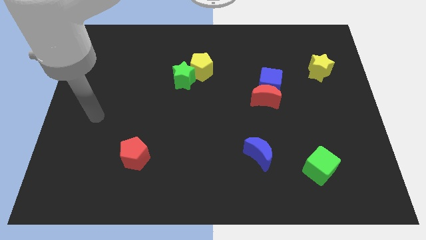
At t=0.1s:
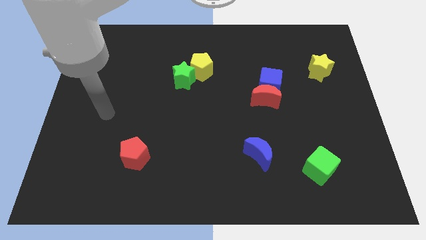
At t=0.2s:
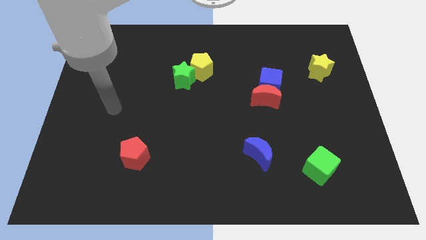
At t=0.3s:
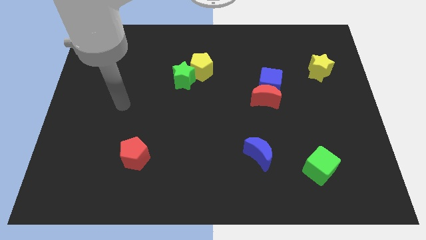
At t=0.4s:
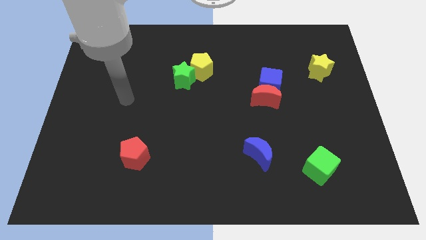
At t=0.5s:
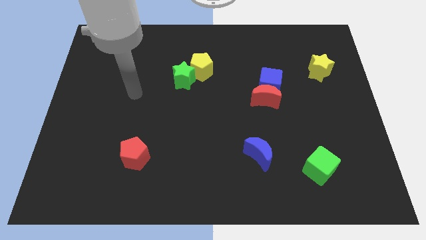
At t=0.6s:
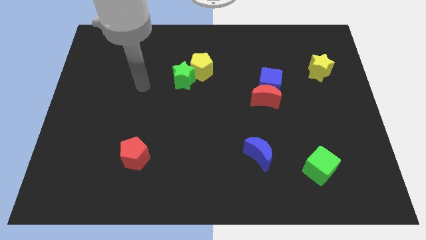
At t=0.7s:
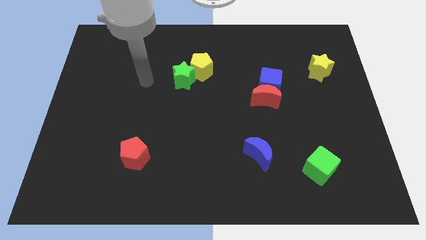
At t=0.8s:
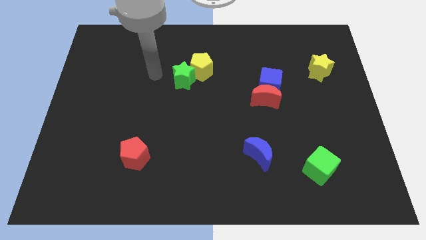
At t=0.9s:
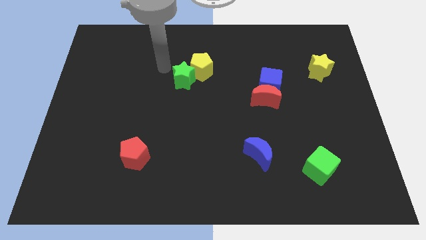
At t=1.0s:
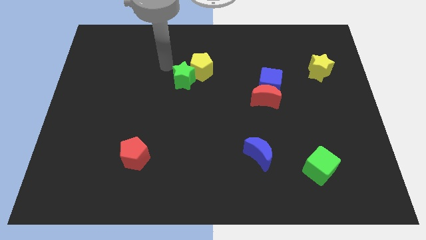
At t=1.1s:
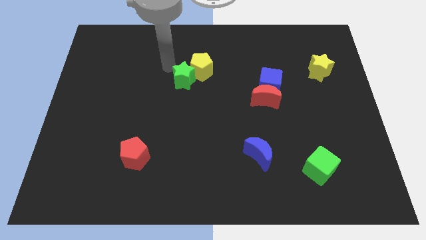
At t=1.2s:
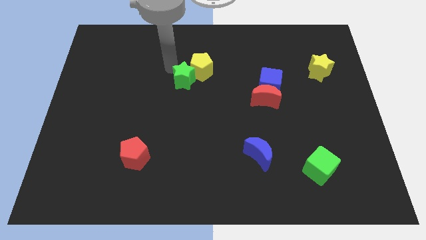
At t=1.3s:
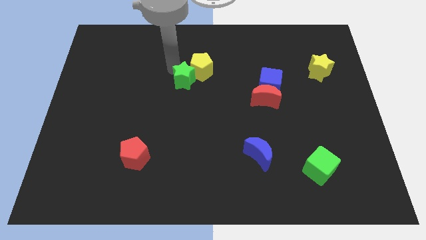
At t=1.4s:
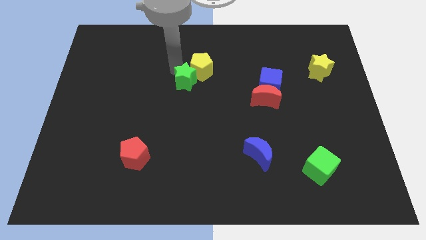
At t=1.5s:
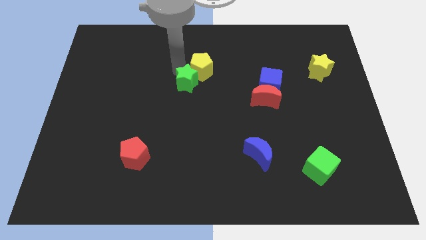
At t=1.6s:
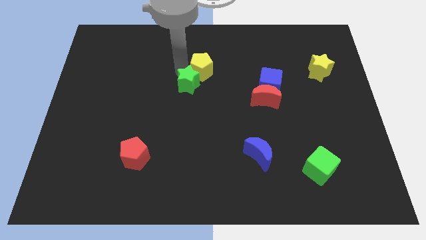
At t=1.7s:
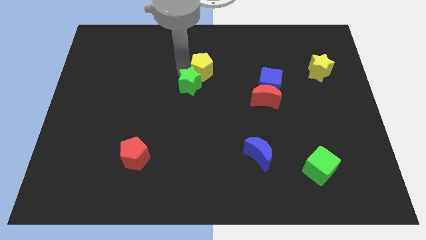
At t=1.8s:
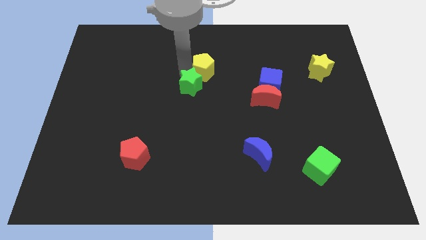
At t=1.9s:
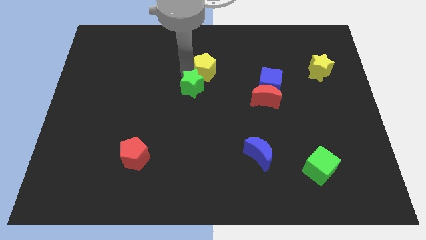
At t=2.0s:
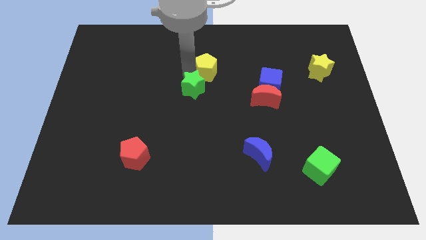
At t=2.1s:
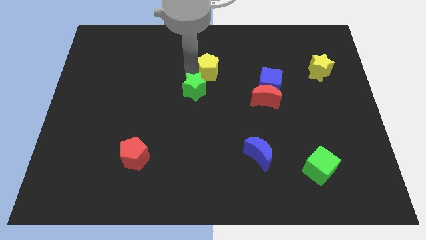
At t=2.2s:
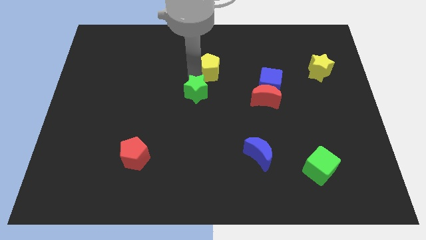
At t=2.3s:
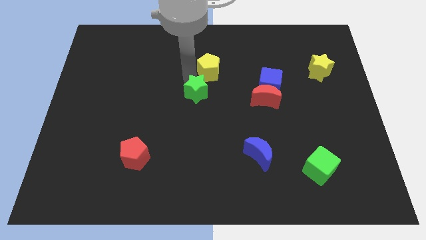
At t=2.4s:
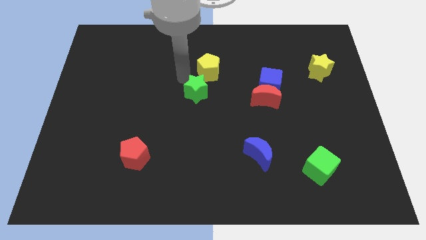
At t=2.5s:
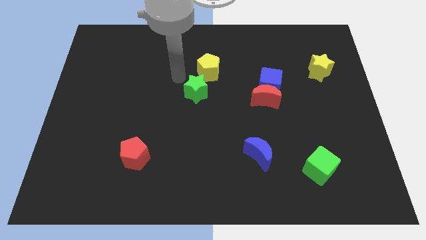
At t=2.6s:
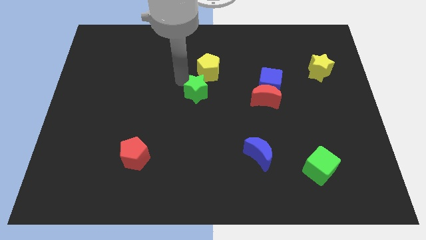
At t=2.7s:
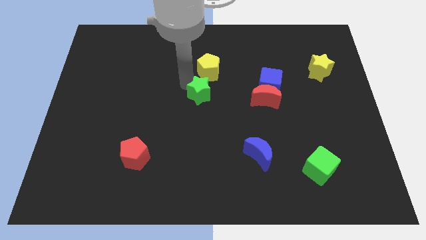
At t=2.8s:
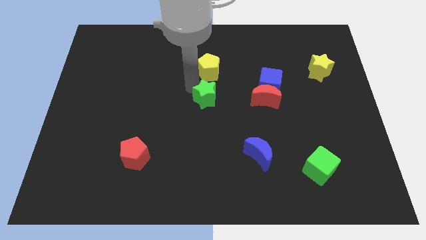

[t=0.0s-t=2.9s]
slide the green star down and to the right diagonally a bit

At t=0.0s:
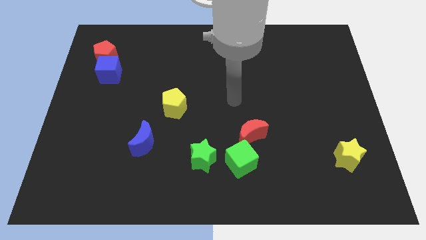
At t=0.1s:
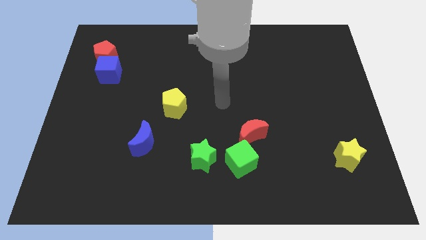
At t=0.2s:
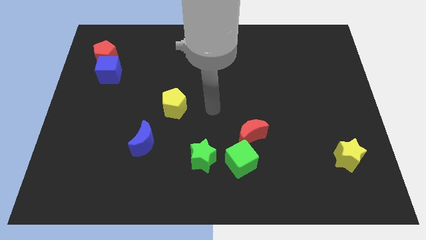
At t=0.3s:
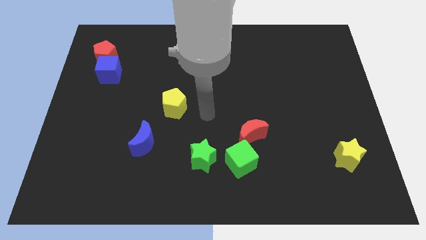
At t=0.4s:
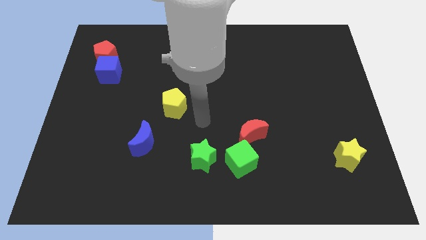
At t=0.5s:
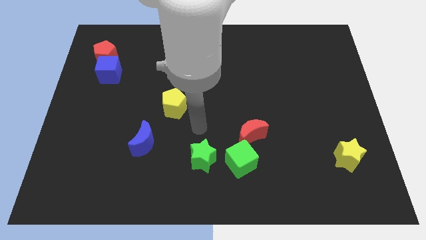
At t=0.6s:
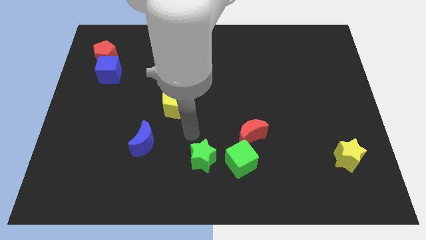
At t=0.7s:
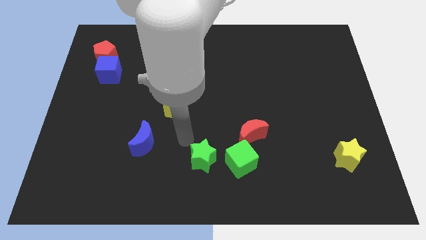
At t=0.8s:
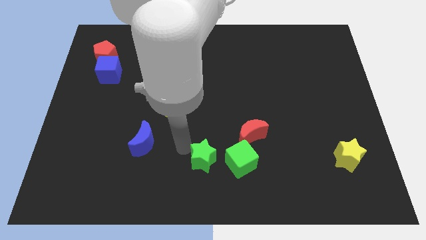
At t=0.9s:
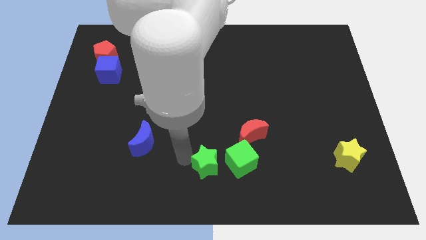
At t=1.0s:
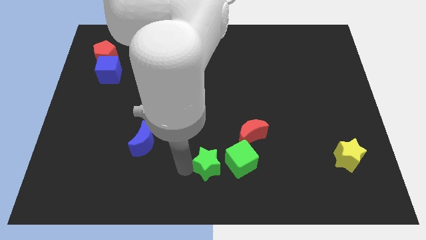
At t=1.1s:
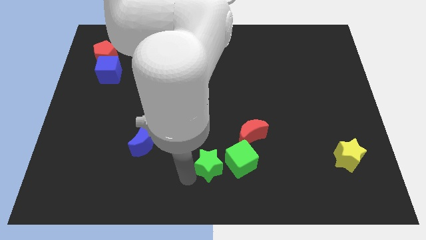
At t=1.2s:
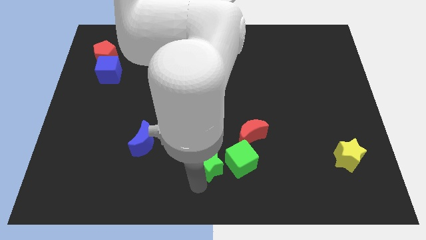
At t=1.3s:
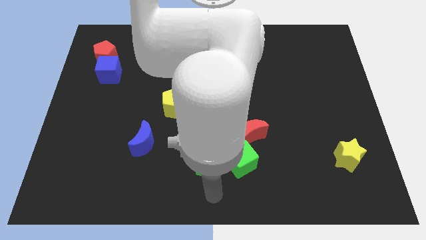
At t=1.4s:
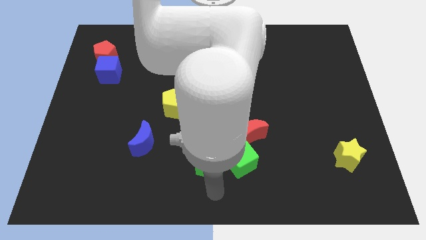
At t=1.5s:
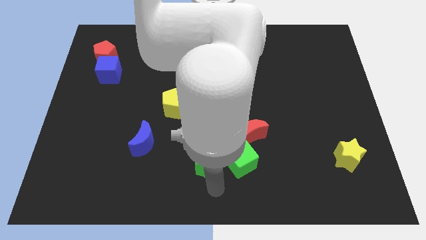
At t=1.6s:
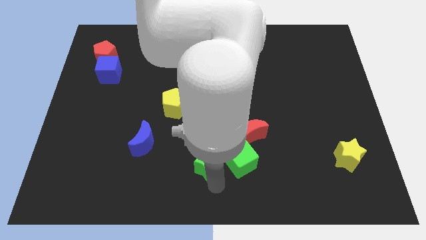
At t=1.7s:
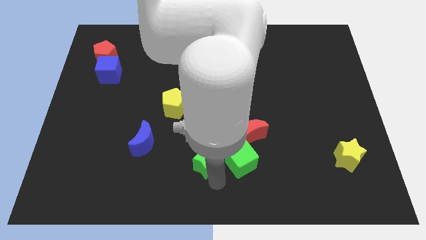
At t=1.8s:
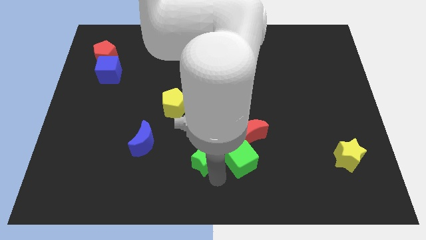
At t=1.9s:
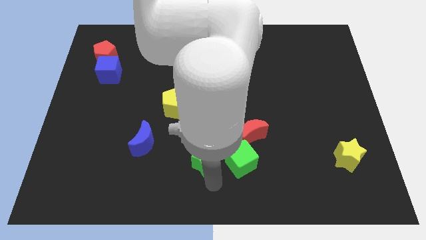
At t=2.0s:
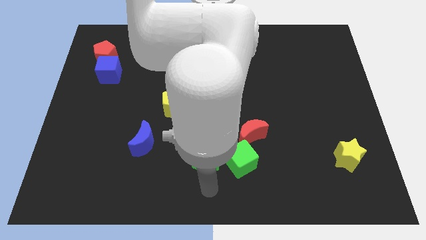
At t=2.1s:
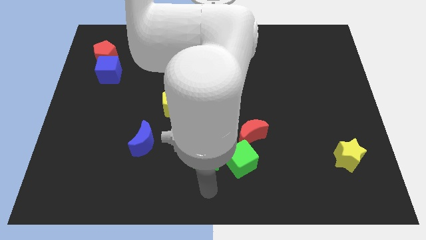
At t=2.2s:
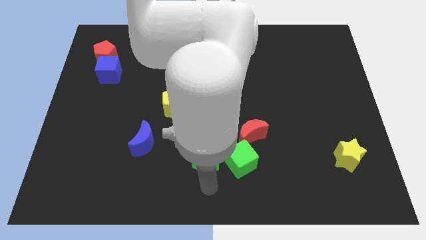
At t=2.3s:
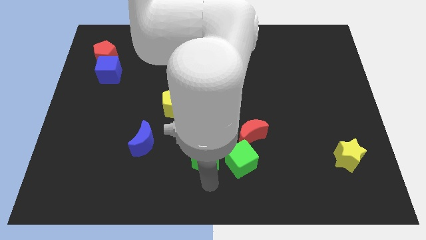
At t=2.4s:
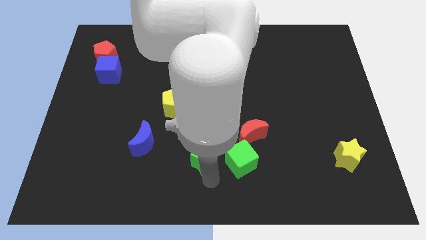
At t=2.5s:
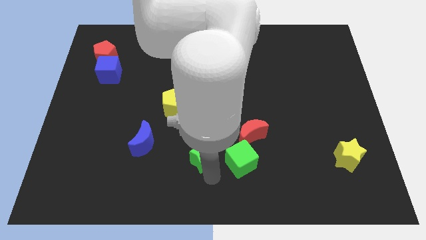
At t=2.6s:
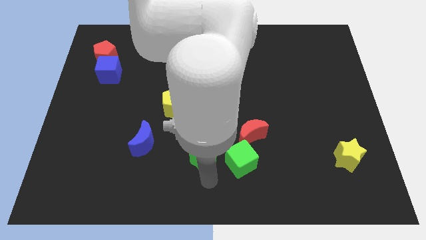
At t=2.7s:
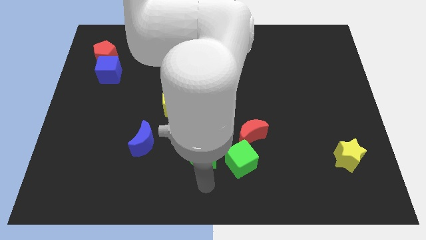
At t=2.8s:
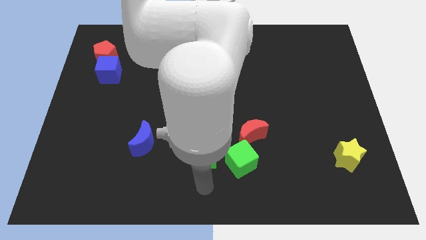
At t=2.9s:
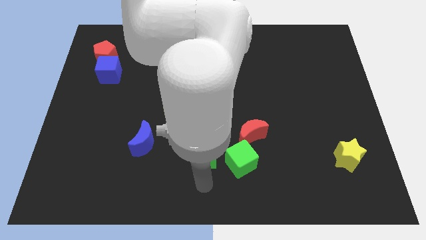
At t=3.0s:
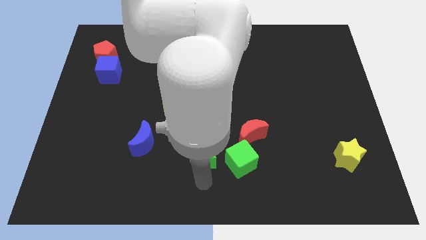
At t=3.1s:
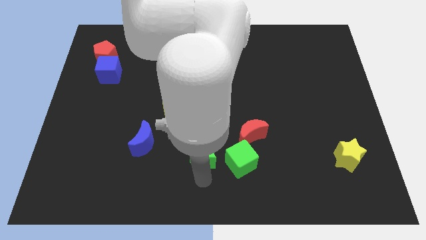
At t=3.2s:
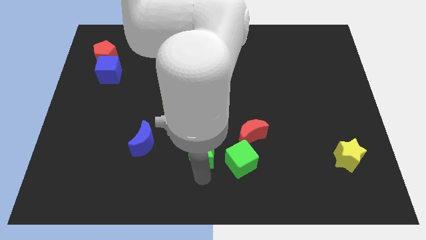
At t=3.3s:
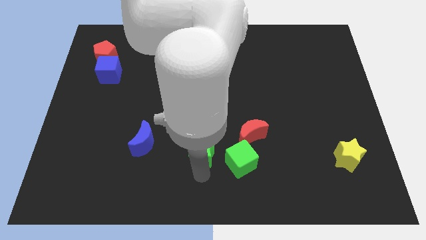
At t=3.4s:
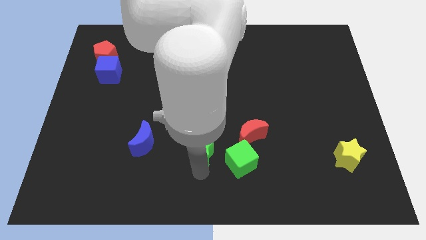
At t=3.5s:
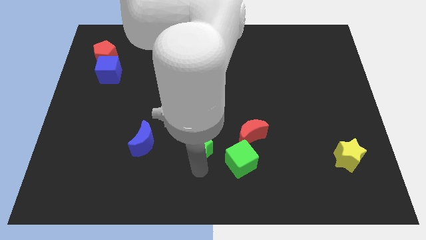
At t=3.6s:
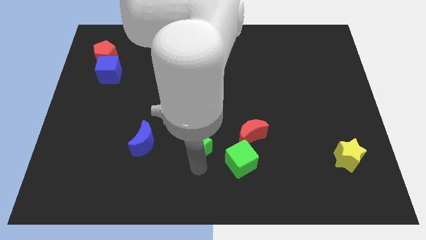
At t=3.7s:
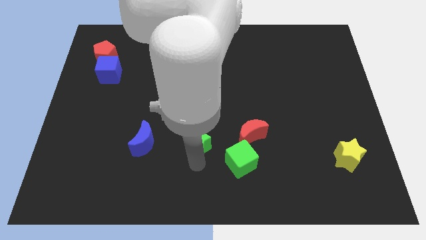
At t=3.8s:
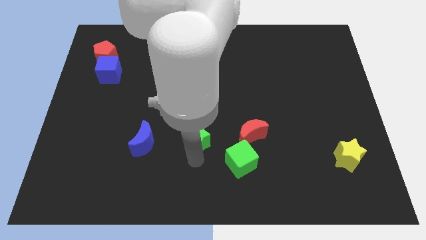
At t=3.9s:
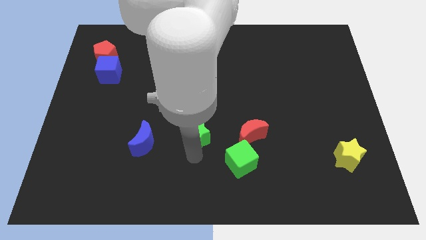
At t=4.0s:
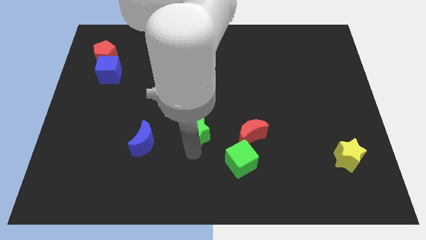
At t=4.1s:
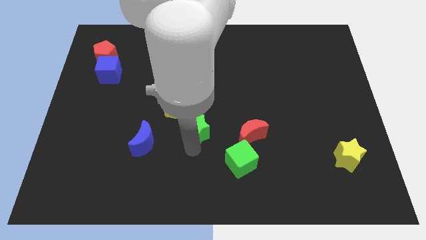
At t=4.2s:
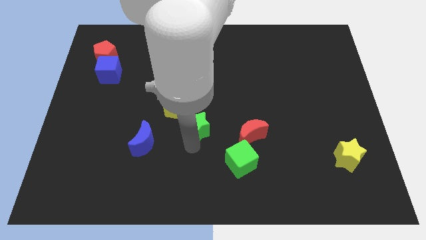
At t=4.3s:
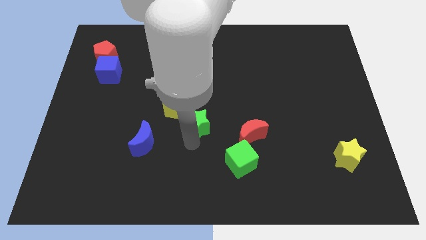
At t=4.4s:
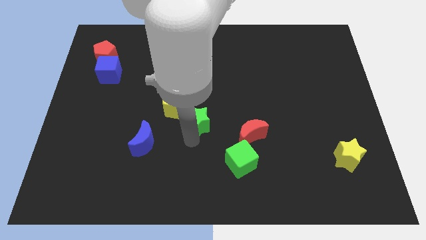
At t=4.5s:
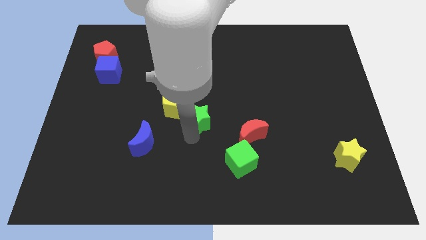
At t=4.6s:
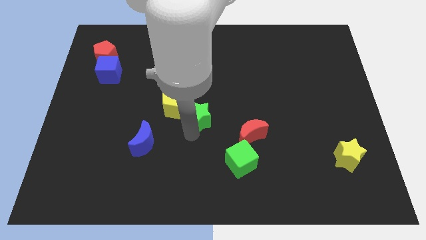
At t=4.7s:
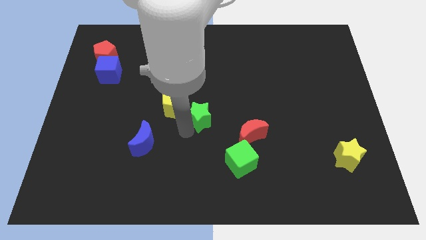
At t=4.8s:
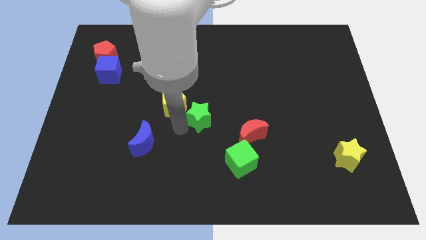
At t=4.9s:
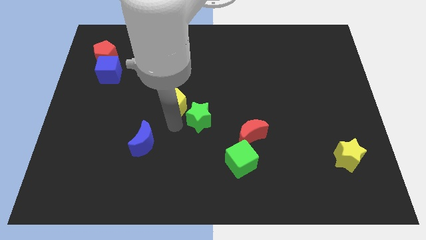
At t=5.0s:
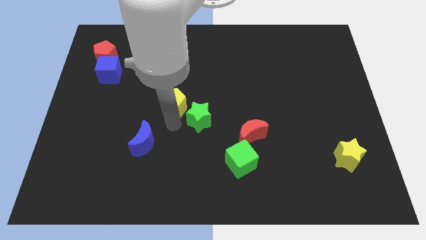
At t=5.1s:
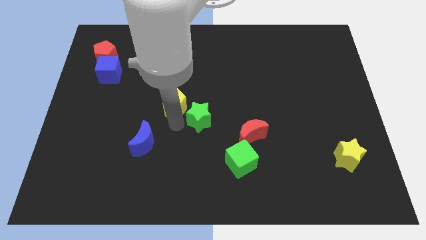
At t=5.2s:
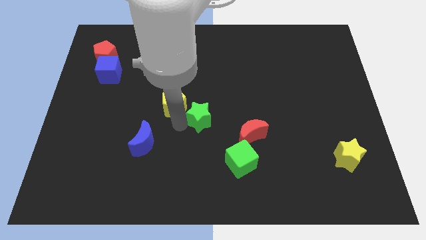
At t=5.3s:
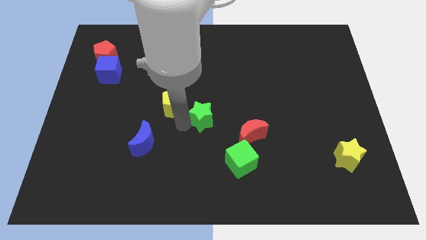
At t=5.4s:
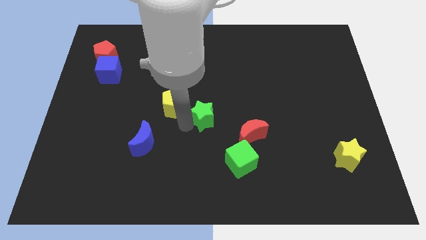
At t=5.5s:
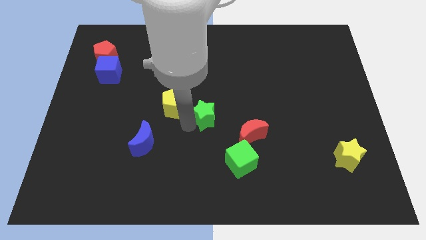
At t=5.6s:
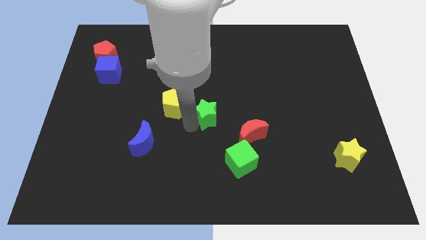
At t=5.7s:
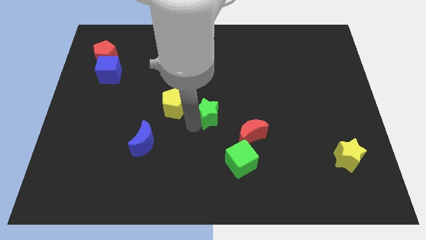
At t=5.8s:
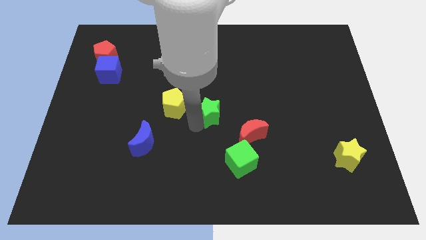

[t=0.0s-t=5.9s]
slightly slide the green star up and right diagonally
